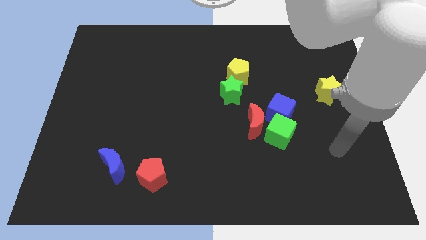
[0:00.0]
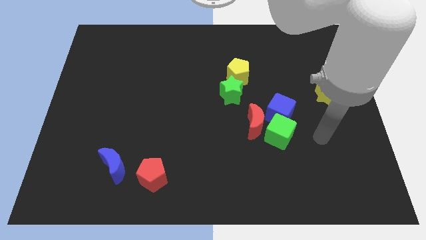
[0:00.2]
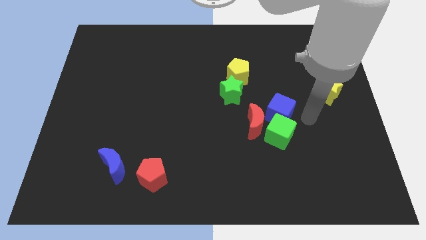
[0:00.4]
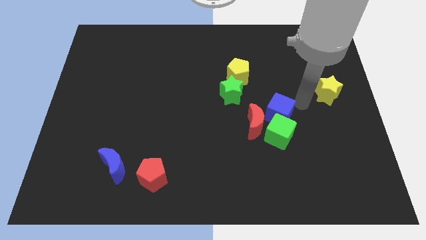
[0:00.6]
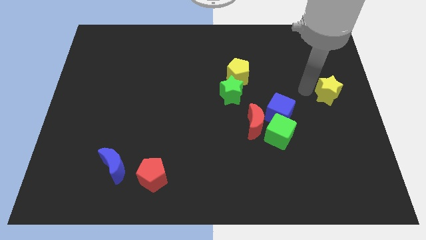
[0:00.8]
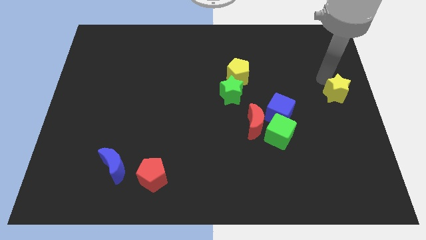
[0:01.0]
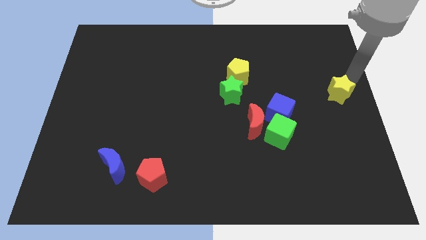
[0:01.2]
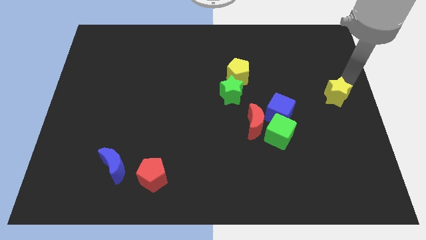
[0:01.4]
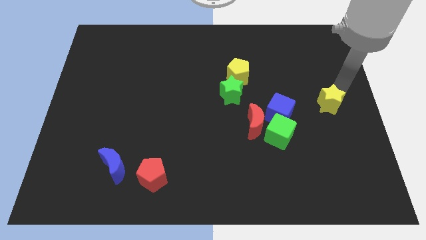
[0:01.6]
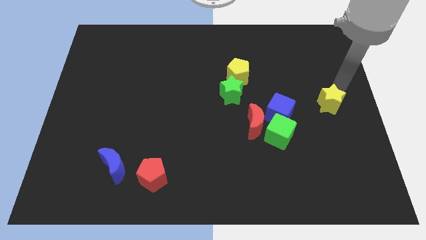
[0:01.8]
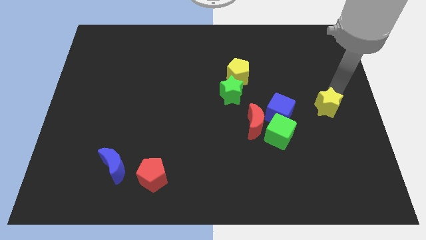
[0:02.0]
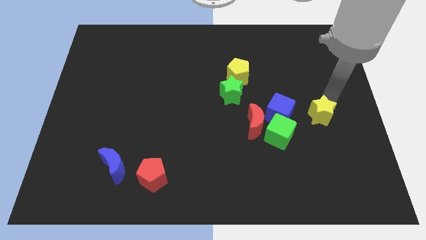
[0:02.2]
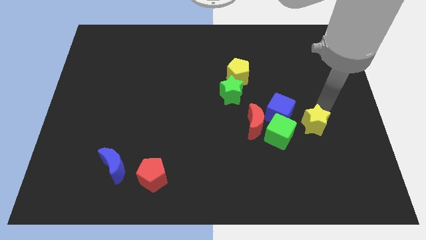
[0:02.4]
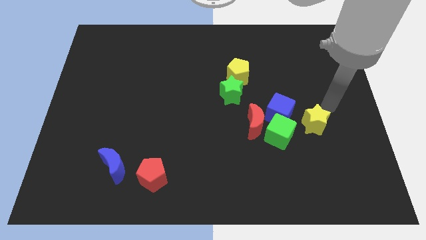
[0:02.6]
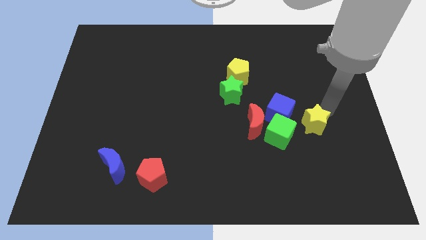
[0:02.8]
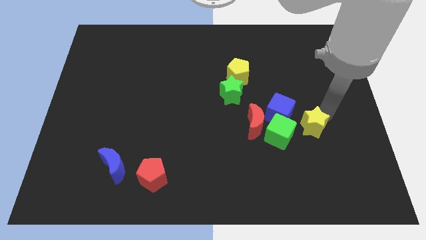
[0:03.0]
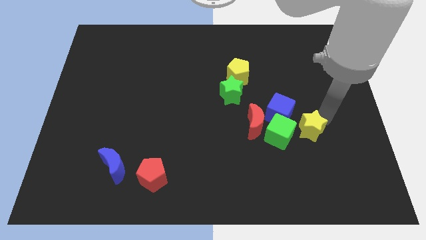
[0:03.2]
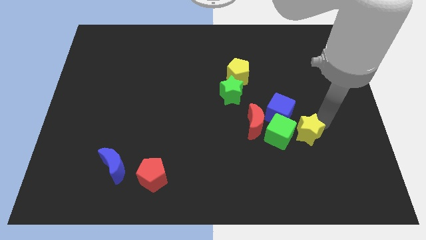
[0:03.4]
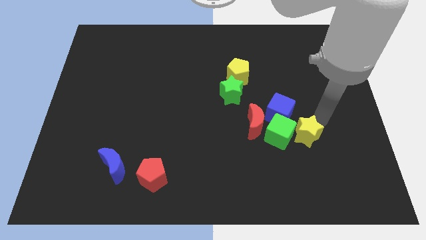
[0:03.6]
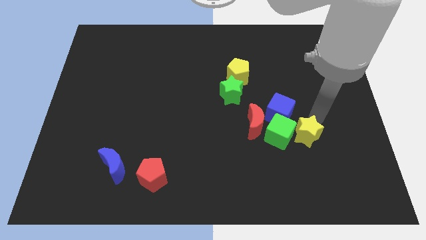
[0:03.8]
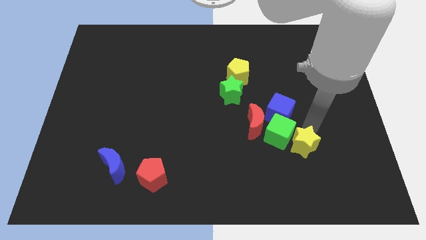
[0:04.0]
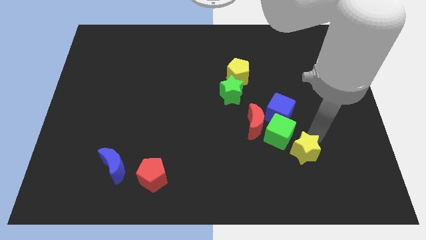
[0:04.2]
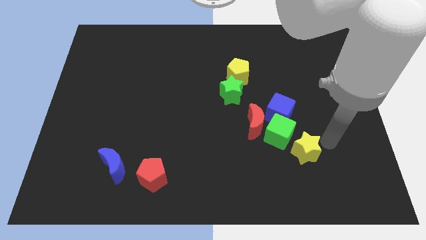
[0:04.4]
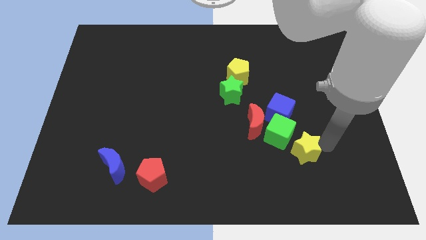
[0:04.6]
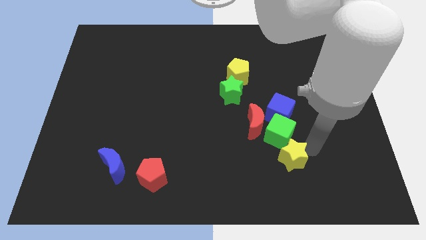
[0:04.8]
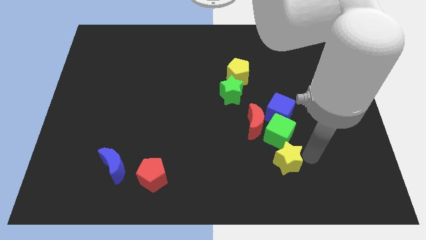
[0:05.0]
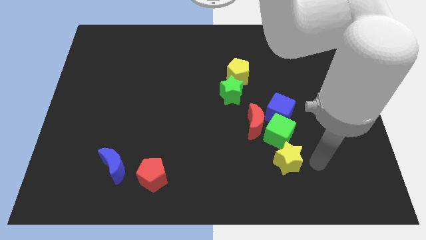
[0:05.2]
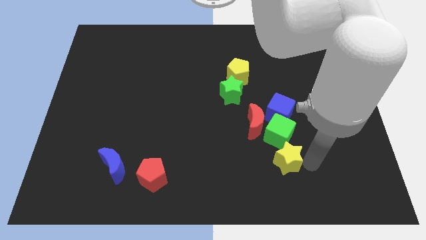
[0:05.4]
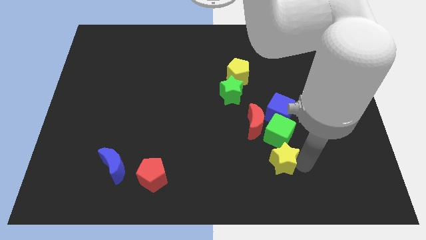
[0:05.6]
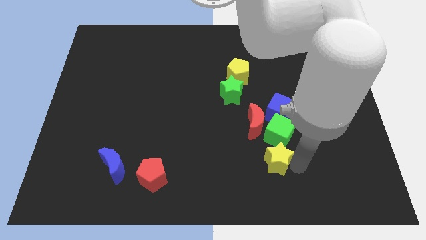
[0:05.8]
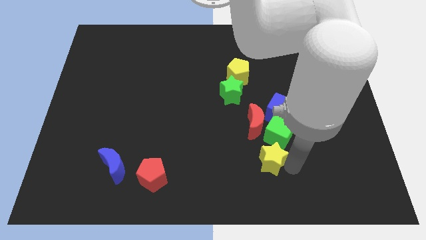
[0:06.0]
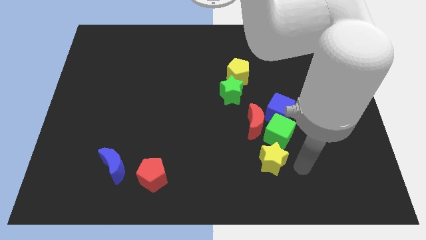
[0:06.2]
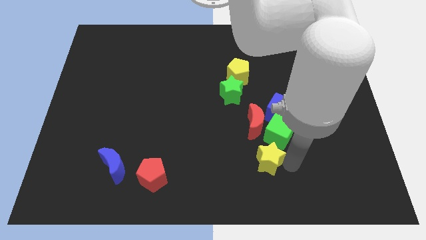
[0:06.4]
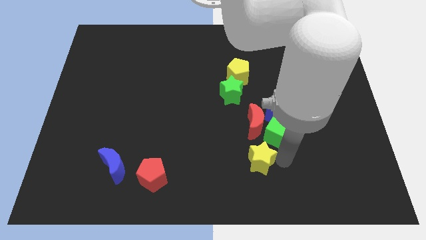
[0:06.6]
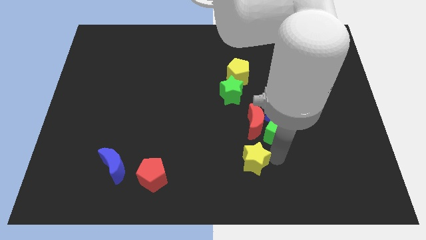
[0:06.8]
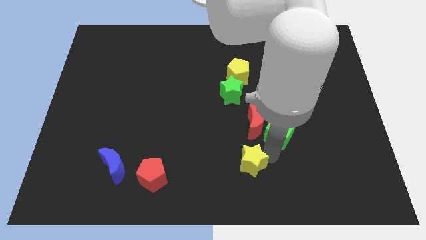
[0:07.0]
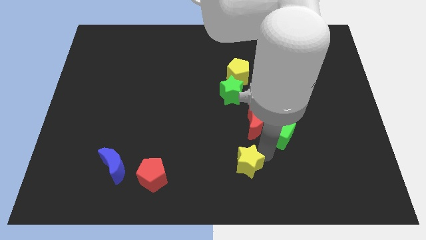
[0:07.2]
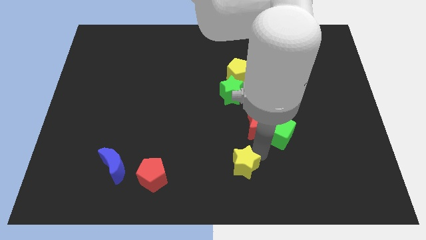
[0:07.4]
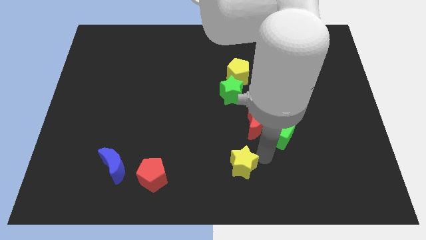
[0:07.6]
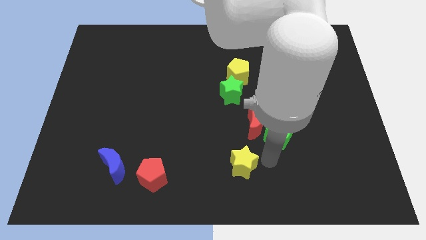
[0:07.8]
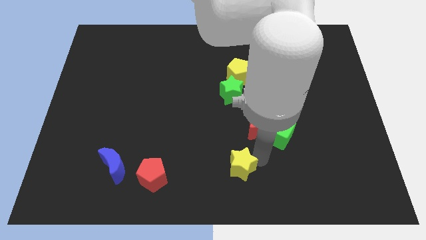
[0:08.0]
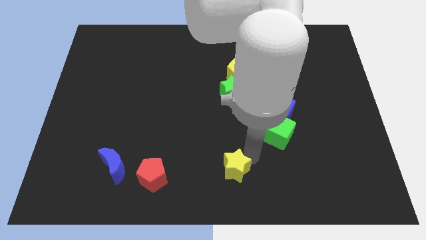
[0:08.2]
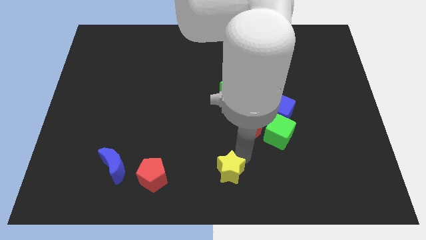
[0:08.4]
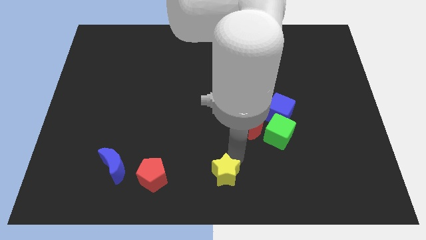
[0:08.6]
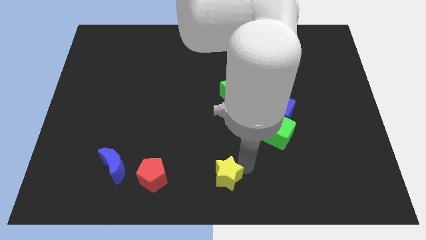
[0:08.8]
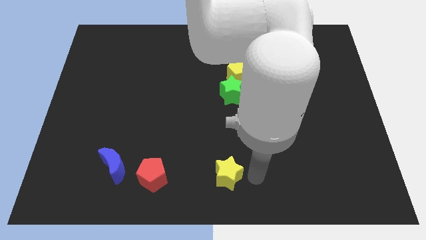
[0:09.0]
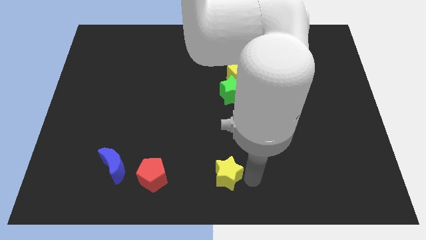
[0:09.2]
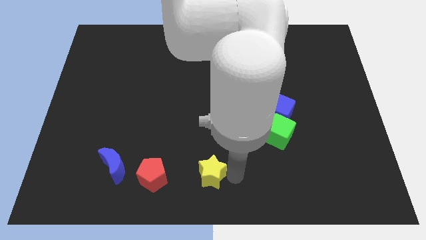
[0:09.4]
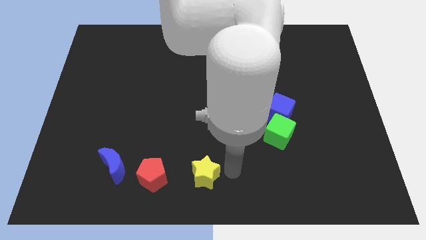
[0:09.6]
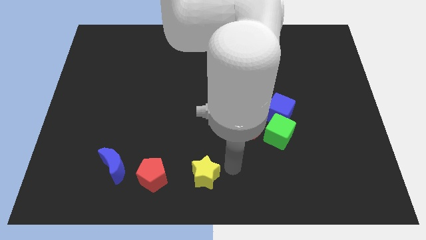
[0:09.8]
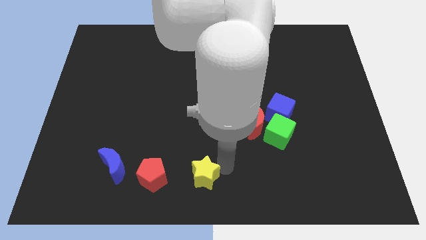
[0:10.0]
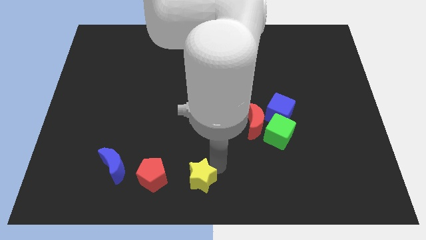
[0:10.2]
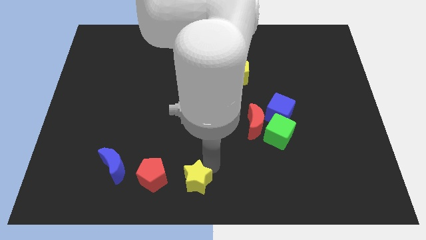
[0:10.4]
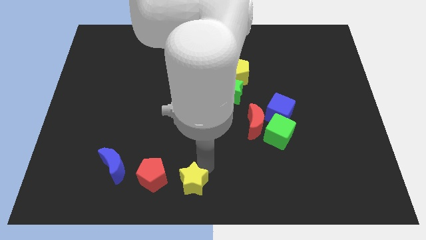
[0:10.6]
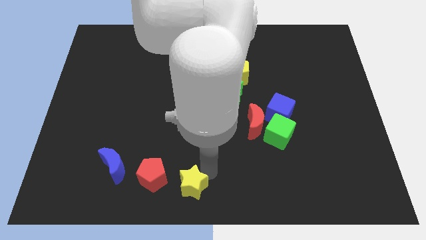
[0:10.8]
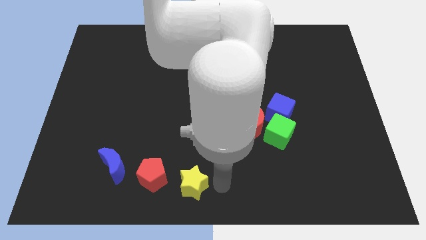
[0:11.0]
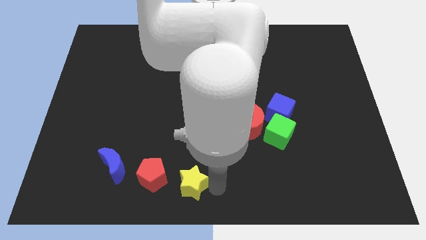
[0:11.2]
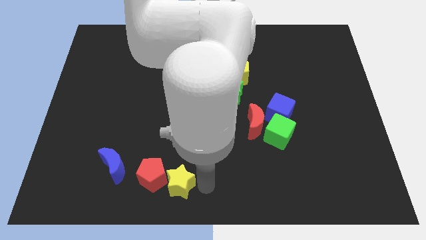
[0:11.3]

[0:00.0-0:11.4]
put the yellow star close to the red pentagon

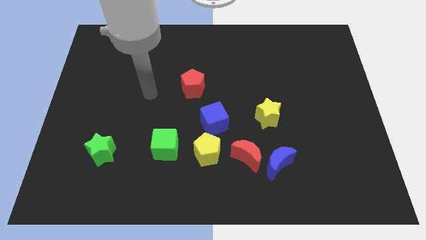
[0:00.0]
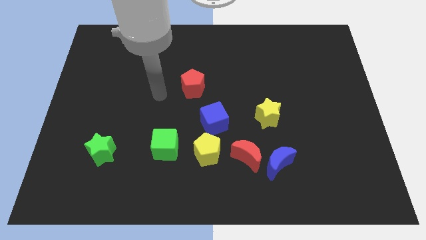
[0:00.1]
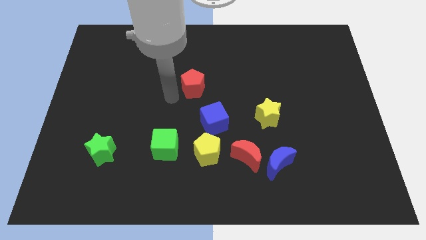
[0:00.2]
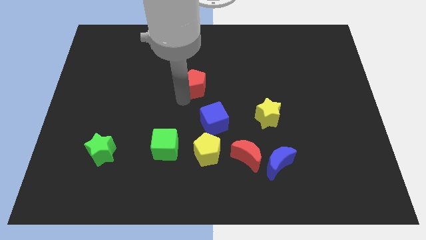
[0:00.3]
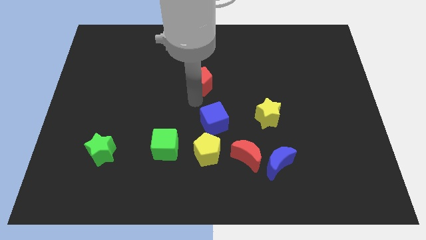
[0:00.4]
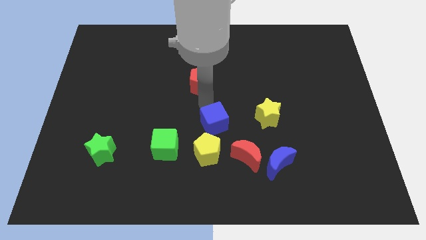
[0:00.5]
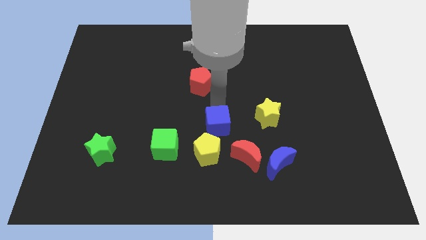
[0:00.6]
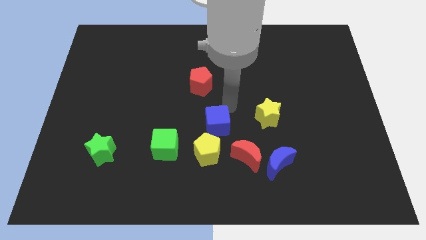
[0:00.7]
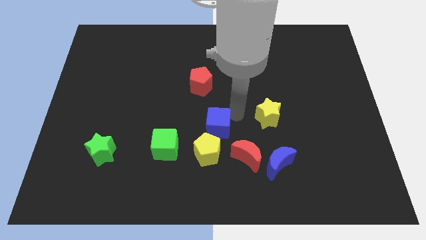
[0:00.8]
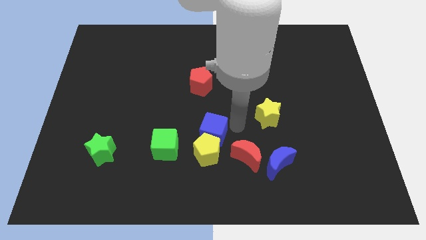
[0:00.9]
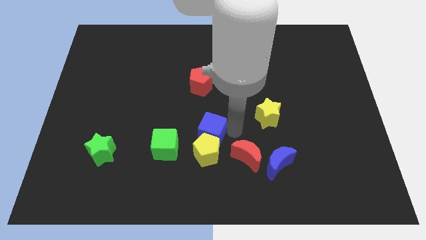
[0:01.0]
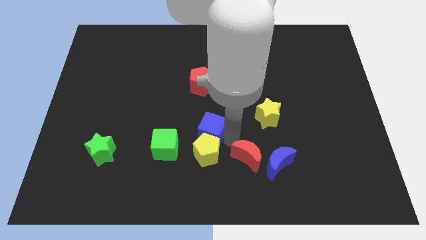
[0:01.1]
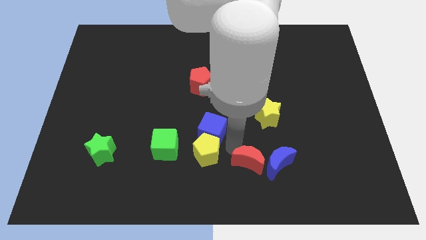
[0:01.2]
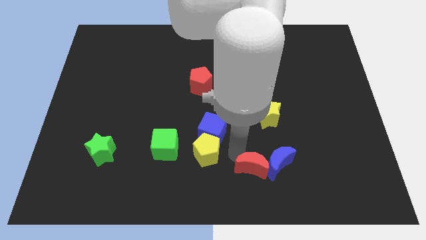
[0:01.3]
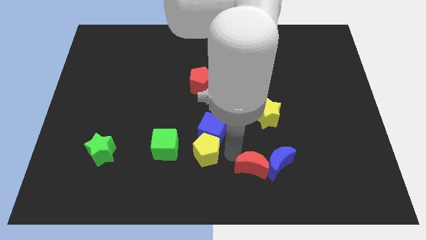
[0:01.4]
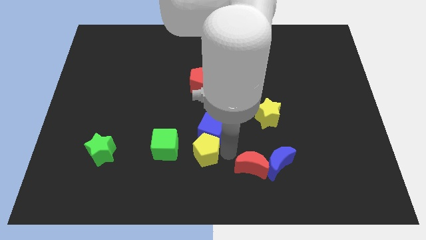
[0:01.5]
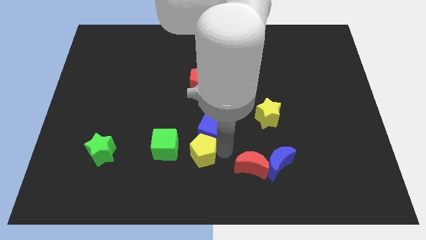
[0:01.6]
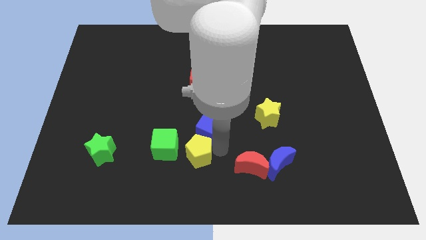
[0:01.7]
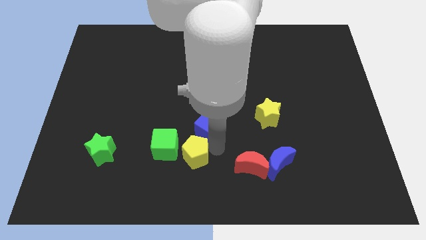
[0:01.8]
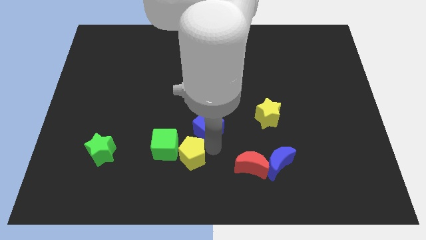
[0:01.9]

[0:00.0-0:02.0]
put the yellow pentagon to the green cube
